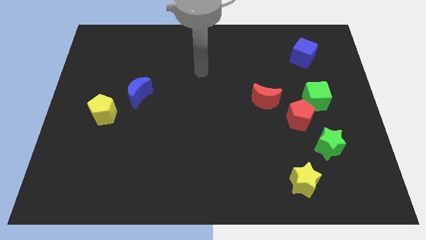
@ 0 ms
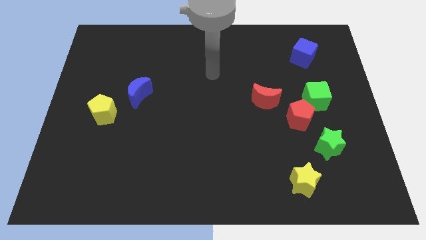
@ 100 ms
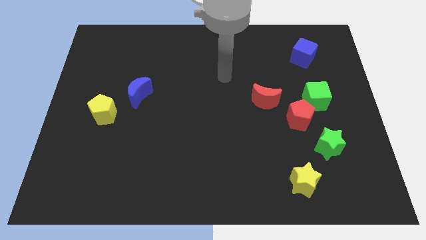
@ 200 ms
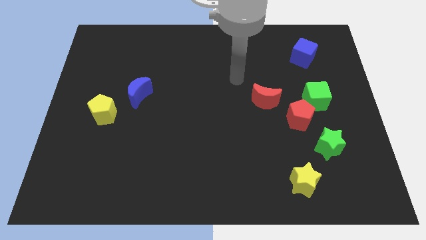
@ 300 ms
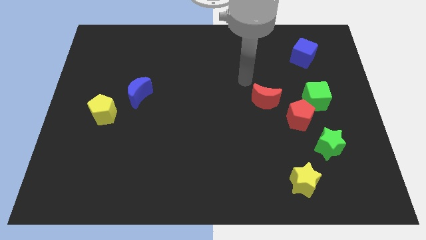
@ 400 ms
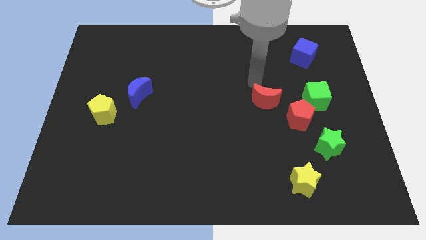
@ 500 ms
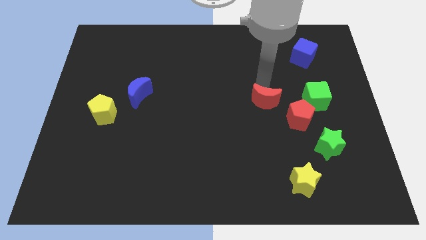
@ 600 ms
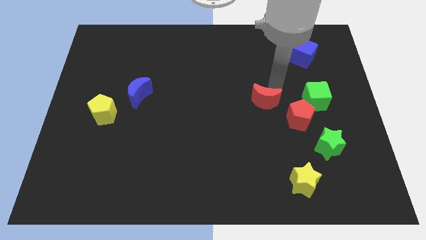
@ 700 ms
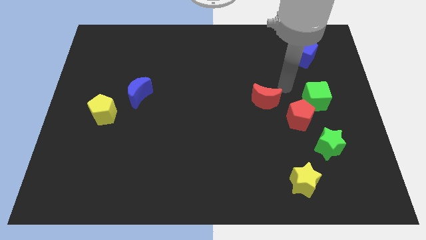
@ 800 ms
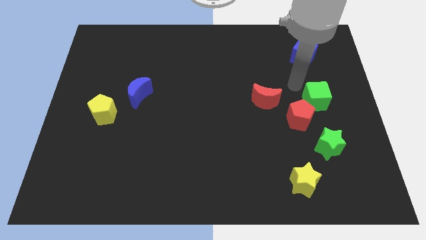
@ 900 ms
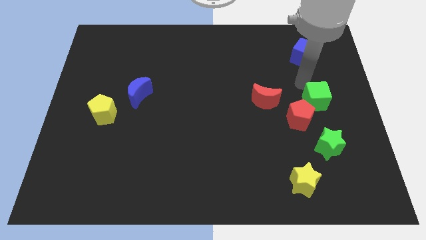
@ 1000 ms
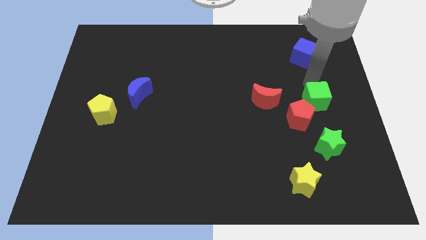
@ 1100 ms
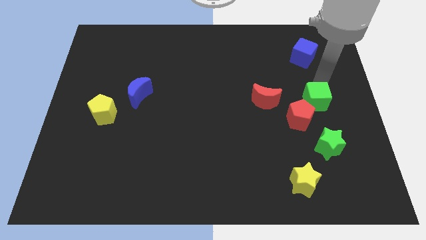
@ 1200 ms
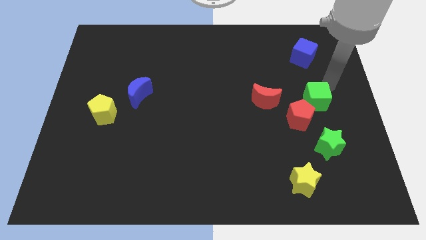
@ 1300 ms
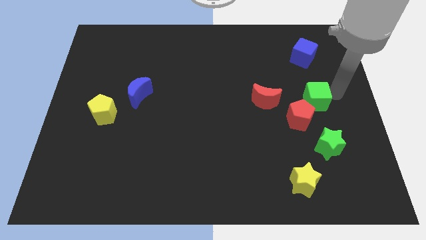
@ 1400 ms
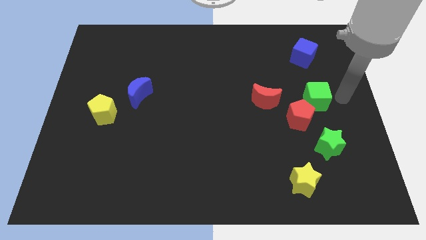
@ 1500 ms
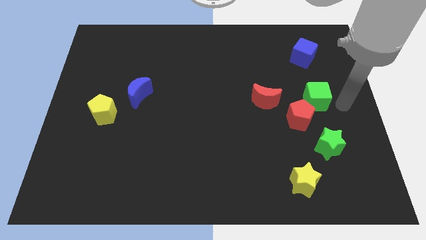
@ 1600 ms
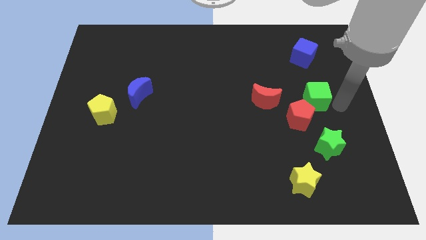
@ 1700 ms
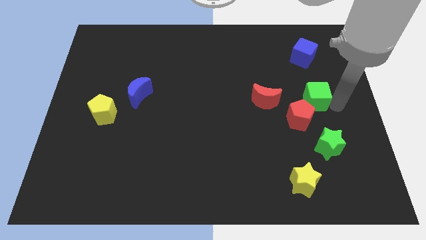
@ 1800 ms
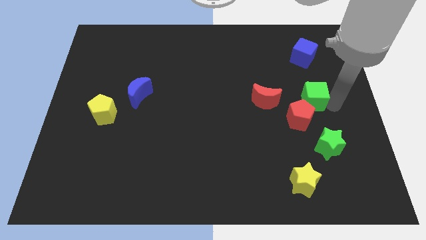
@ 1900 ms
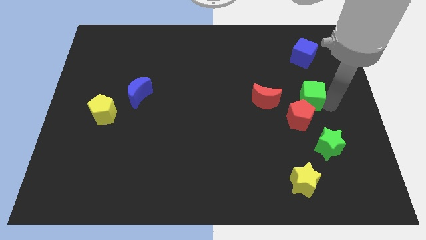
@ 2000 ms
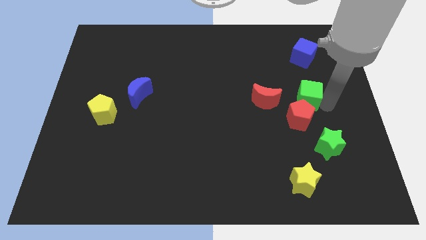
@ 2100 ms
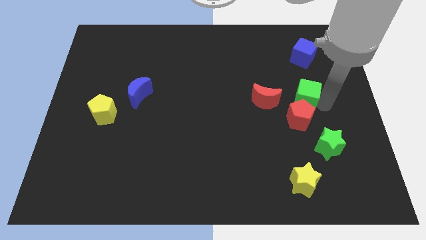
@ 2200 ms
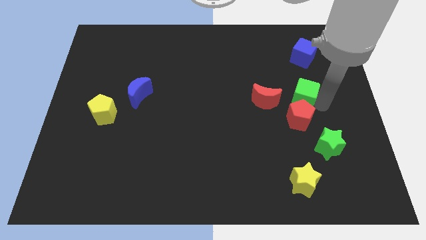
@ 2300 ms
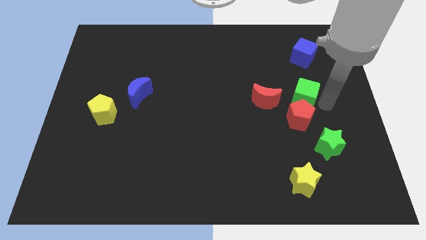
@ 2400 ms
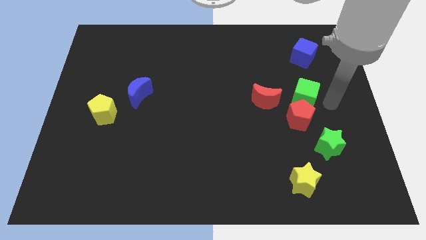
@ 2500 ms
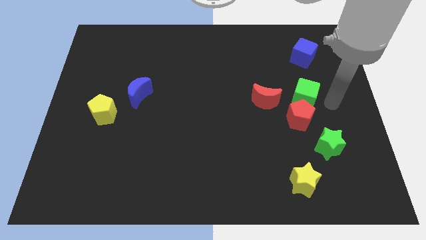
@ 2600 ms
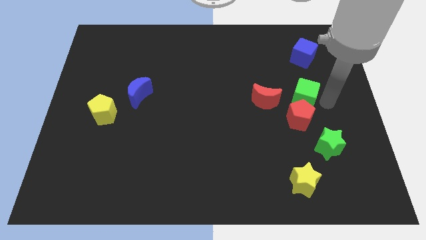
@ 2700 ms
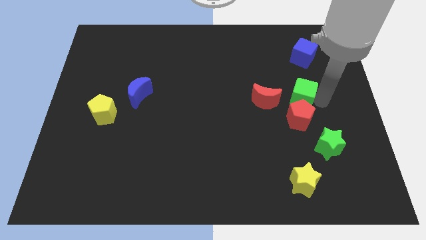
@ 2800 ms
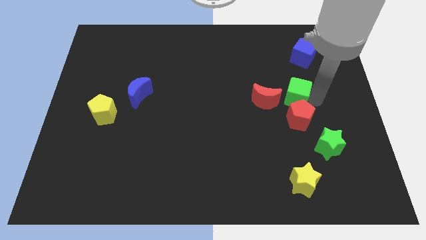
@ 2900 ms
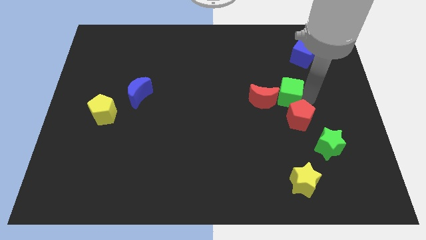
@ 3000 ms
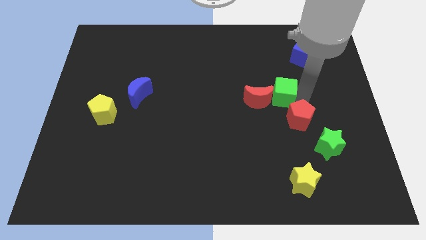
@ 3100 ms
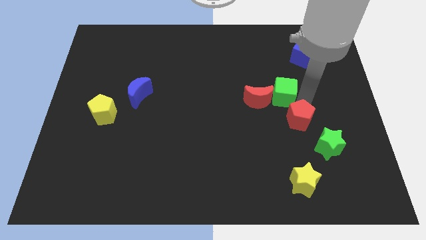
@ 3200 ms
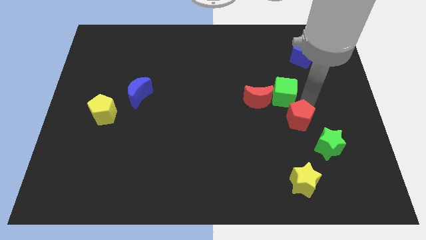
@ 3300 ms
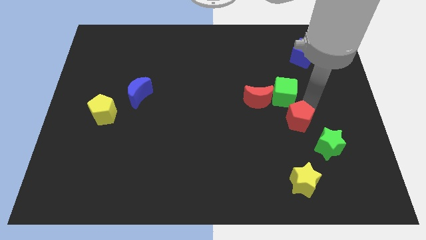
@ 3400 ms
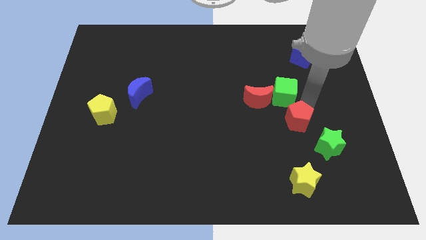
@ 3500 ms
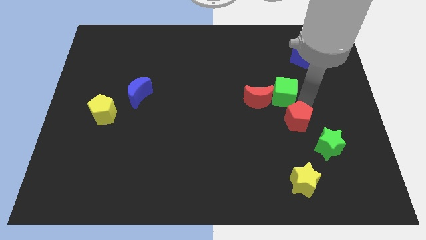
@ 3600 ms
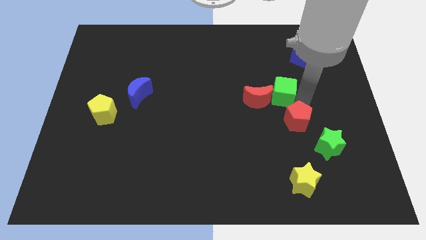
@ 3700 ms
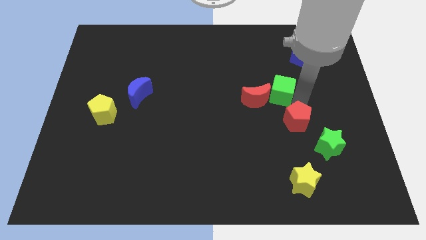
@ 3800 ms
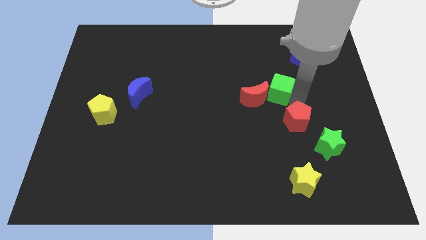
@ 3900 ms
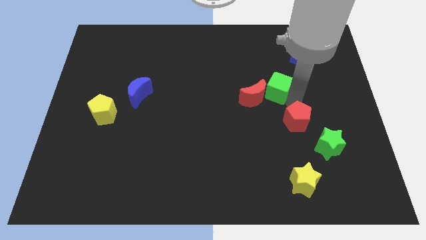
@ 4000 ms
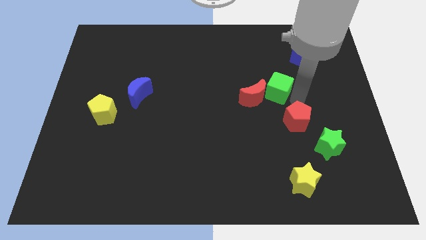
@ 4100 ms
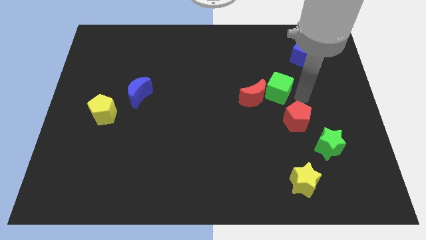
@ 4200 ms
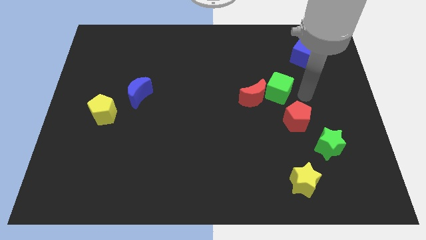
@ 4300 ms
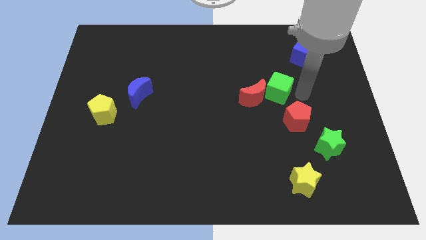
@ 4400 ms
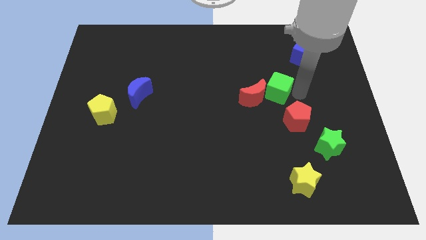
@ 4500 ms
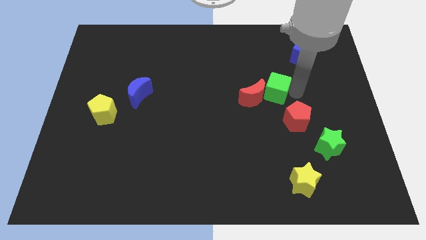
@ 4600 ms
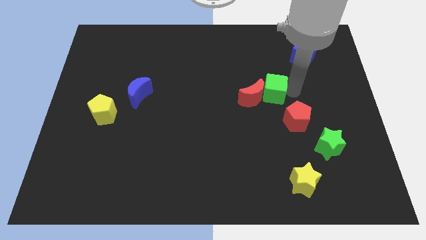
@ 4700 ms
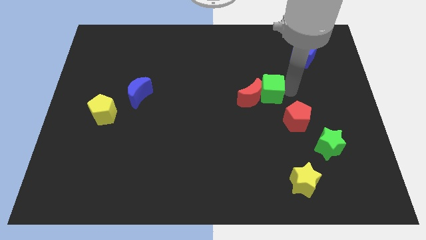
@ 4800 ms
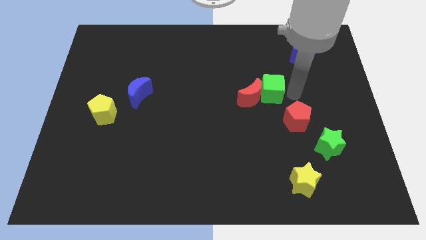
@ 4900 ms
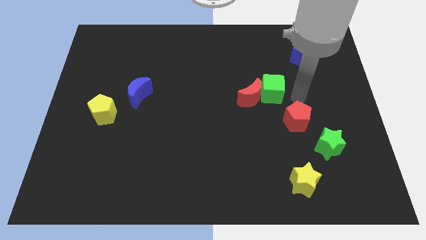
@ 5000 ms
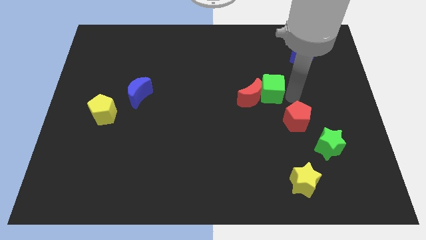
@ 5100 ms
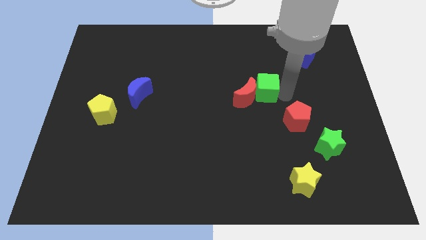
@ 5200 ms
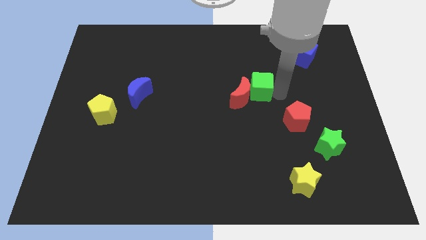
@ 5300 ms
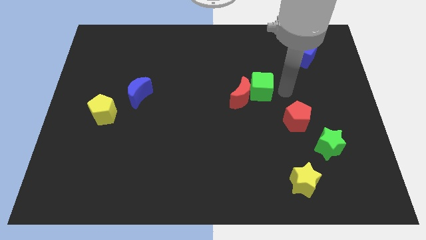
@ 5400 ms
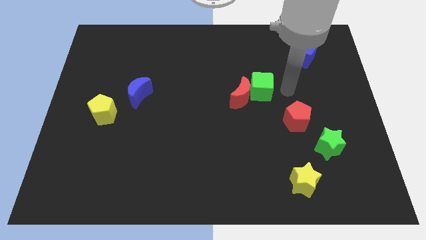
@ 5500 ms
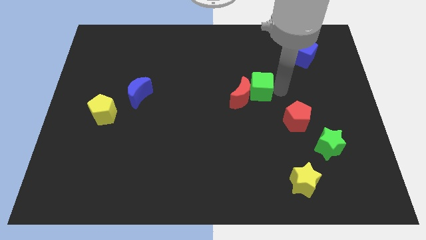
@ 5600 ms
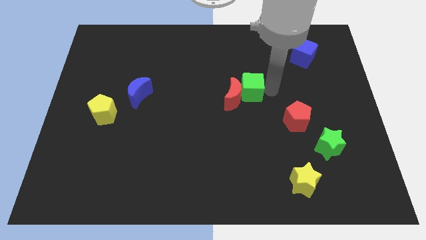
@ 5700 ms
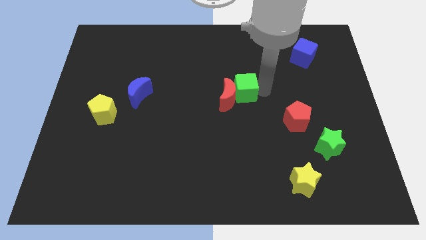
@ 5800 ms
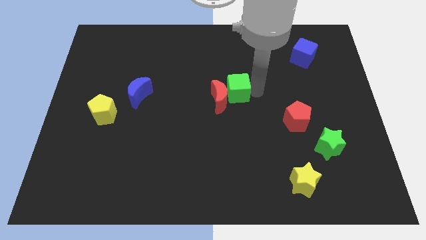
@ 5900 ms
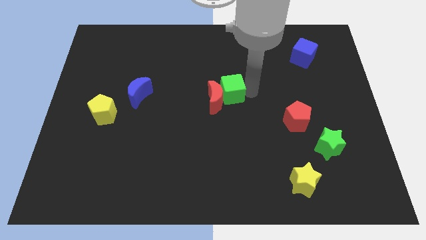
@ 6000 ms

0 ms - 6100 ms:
move the green cube to the left

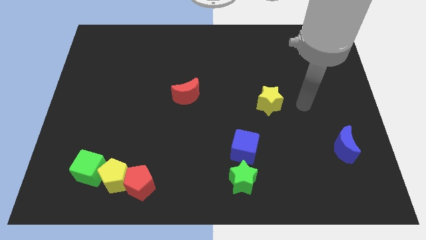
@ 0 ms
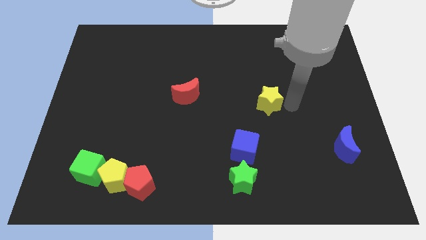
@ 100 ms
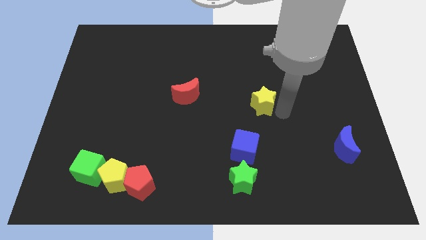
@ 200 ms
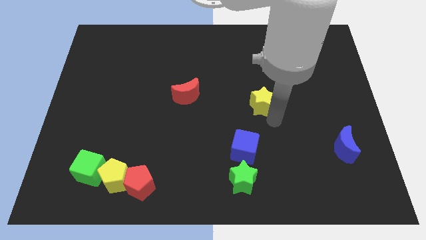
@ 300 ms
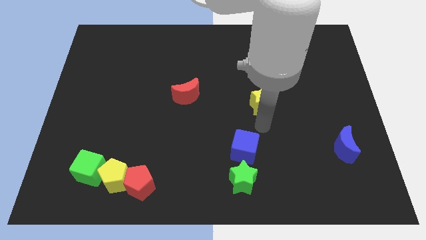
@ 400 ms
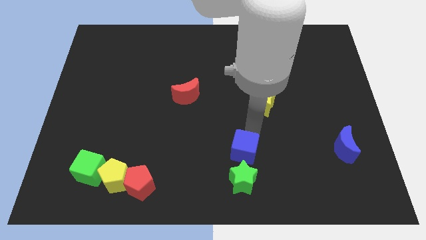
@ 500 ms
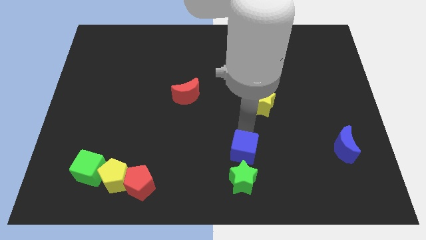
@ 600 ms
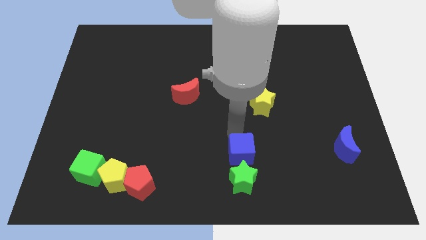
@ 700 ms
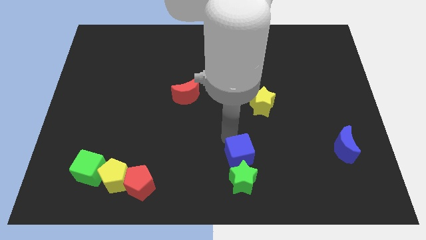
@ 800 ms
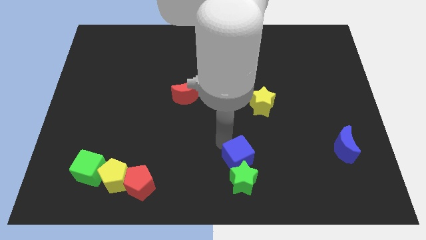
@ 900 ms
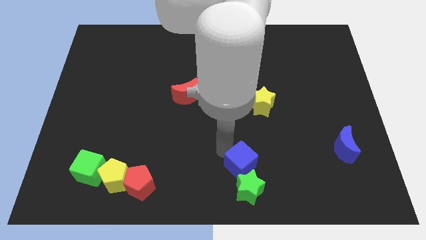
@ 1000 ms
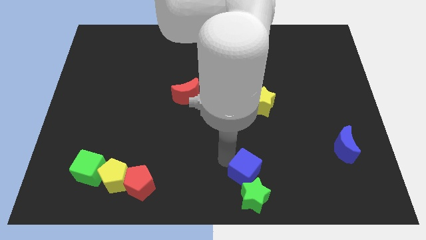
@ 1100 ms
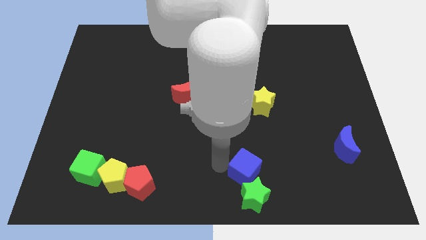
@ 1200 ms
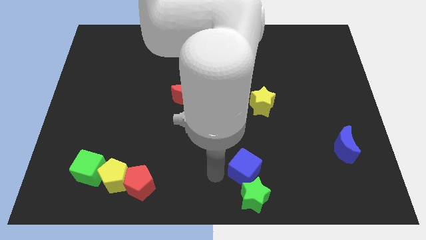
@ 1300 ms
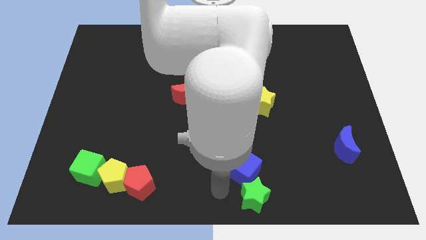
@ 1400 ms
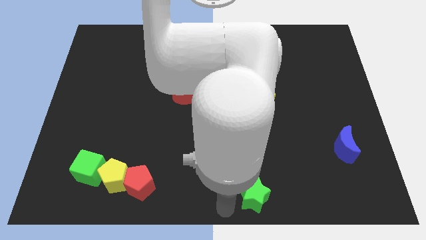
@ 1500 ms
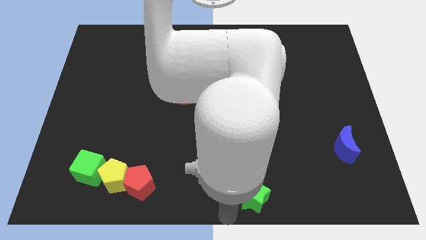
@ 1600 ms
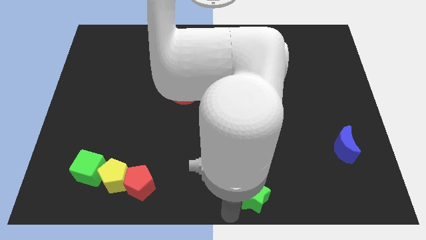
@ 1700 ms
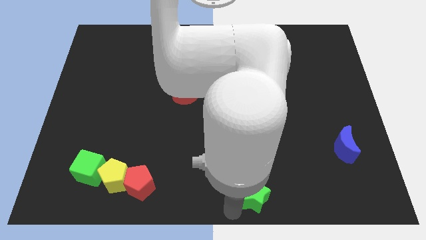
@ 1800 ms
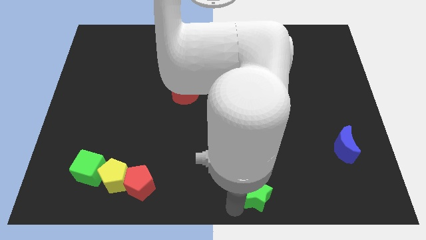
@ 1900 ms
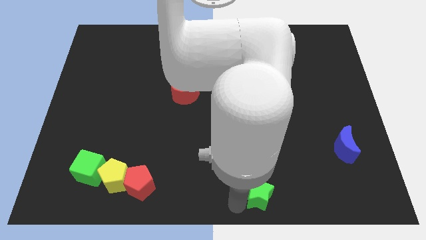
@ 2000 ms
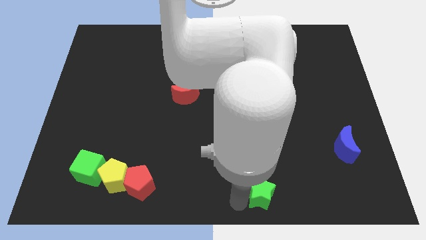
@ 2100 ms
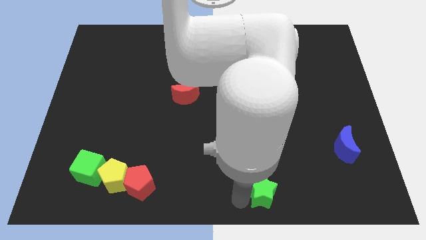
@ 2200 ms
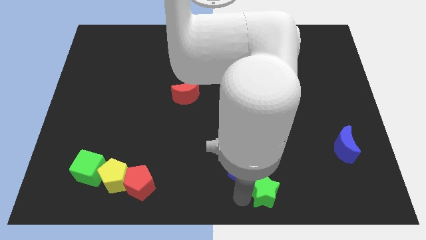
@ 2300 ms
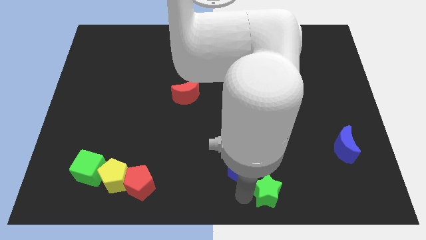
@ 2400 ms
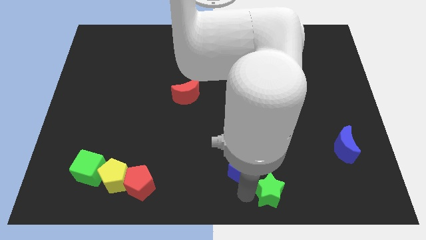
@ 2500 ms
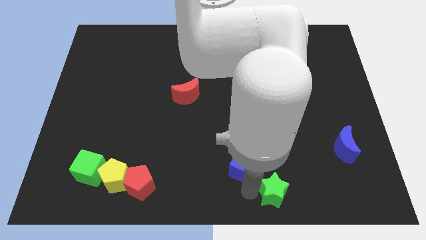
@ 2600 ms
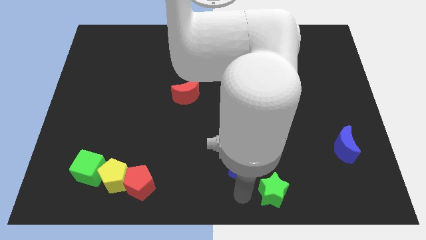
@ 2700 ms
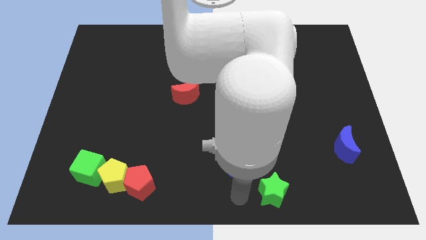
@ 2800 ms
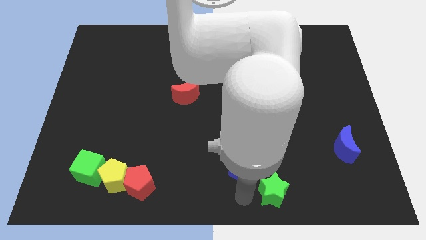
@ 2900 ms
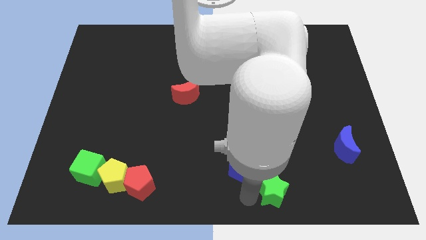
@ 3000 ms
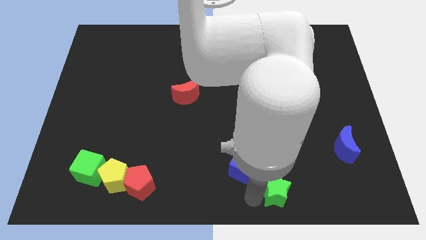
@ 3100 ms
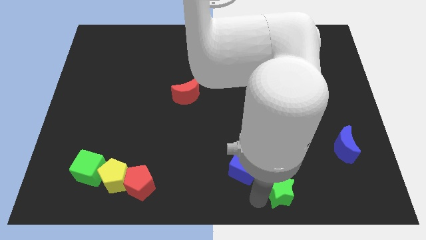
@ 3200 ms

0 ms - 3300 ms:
slightly slide the green star right
